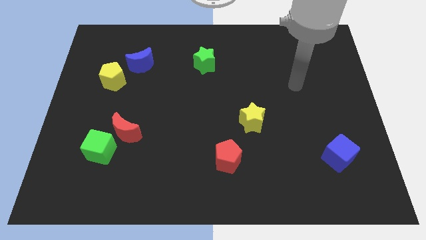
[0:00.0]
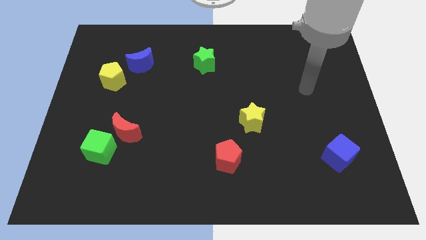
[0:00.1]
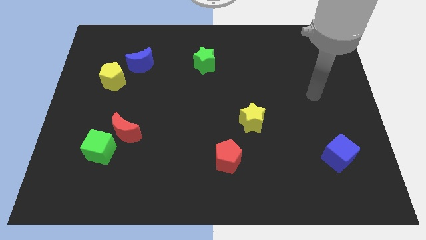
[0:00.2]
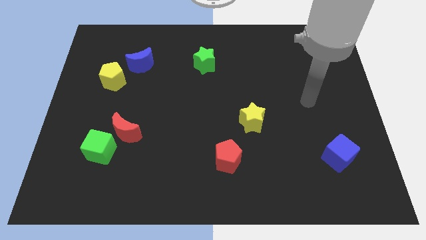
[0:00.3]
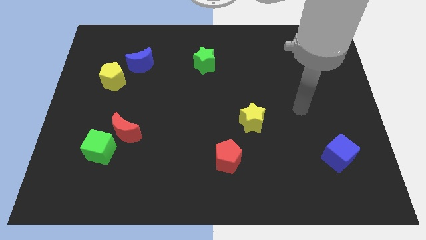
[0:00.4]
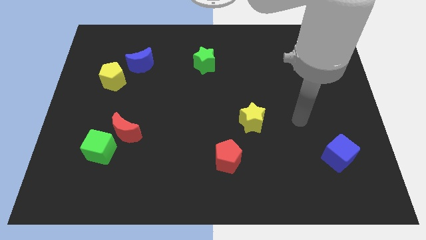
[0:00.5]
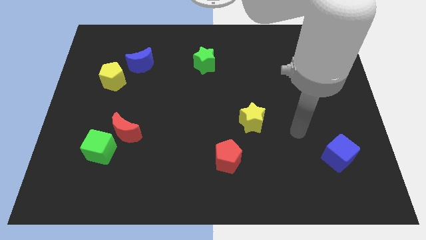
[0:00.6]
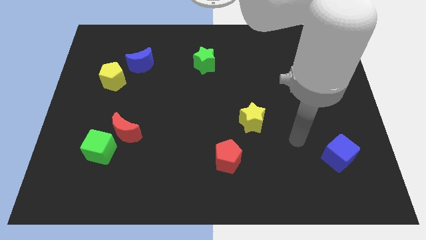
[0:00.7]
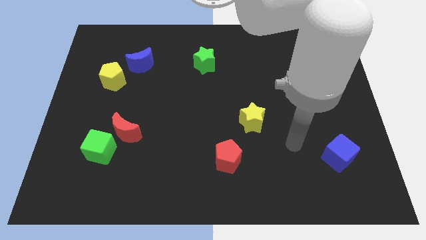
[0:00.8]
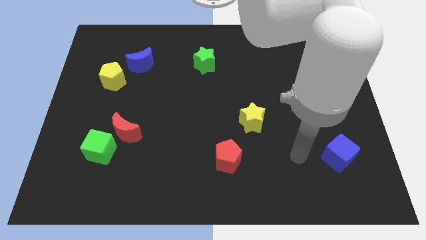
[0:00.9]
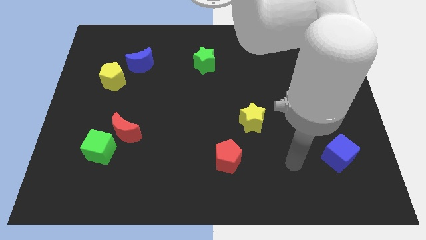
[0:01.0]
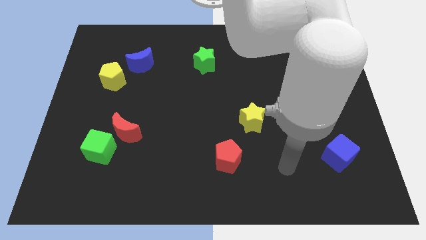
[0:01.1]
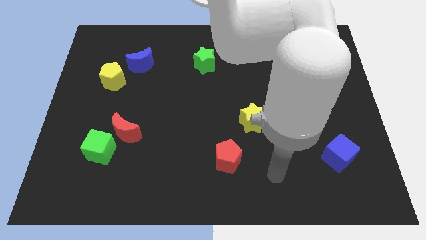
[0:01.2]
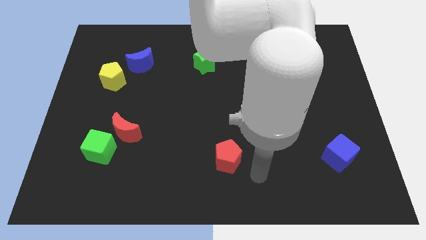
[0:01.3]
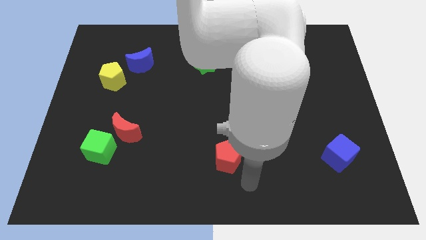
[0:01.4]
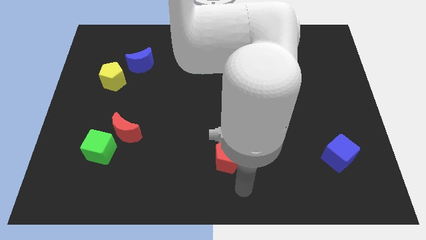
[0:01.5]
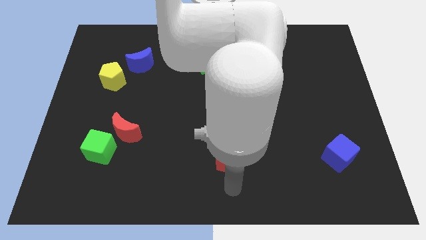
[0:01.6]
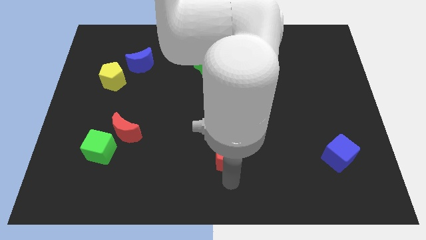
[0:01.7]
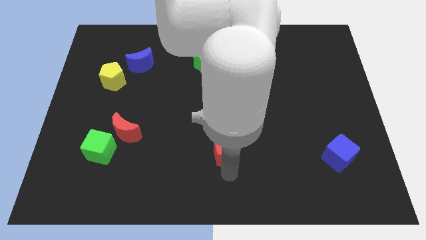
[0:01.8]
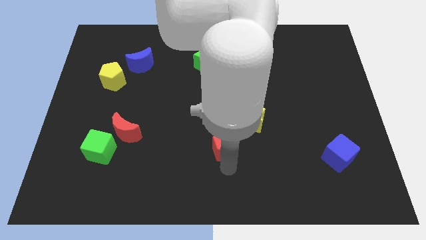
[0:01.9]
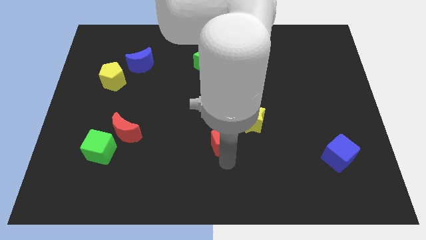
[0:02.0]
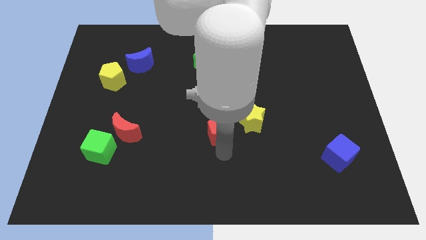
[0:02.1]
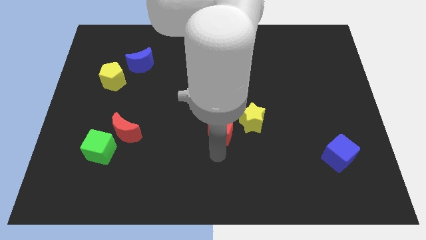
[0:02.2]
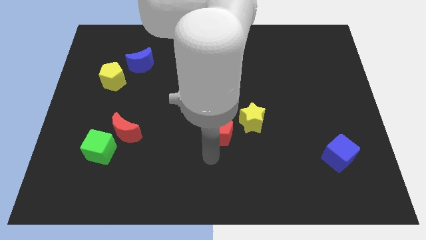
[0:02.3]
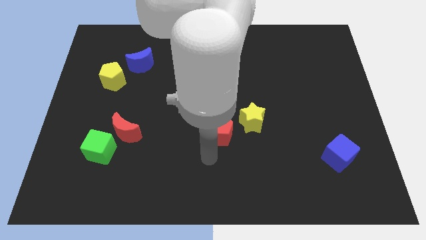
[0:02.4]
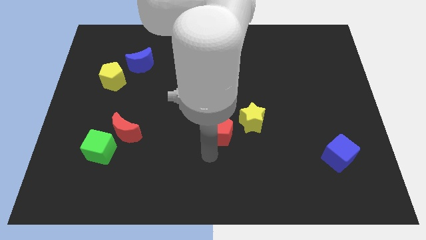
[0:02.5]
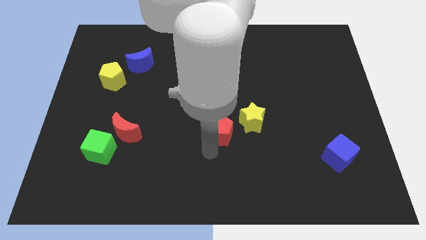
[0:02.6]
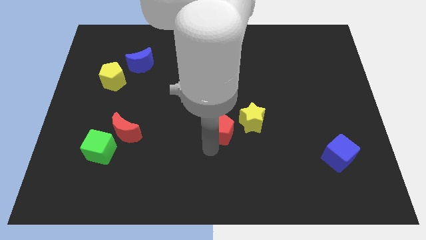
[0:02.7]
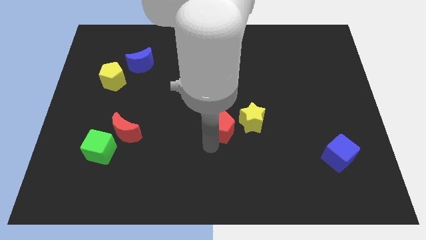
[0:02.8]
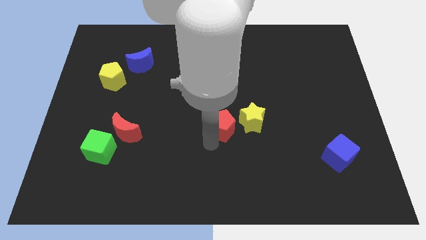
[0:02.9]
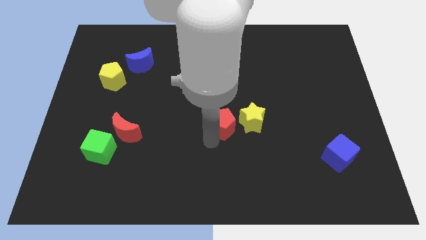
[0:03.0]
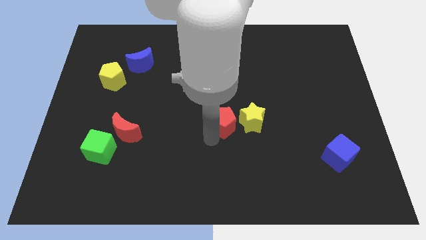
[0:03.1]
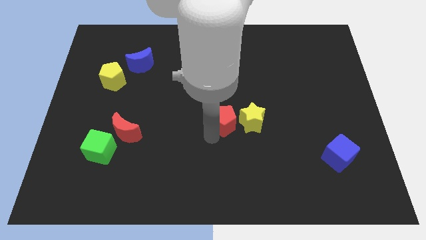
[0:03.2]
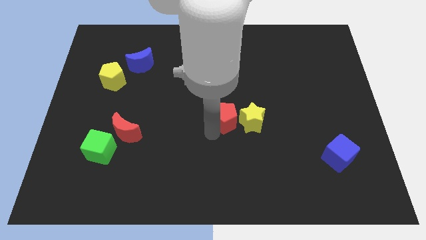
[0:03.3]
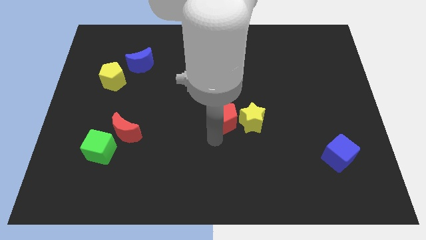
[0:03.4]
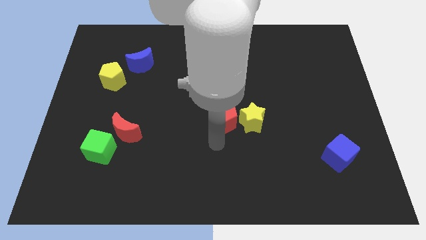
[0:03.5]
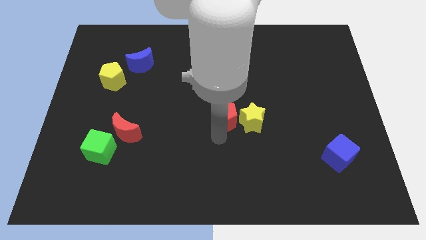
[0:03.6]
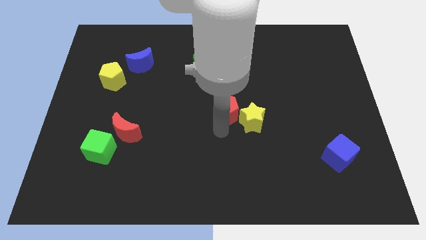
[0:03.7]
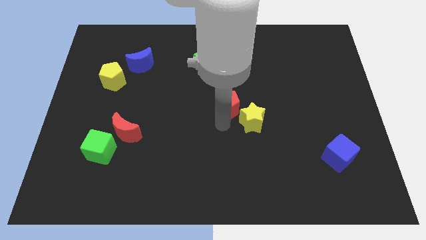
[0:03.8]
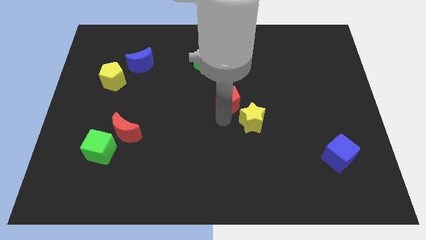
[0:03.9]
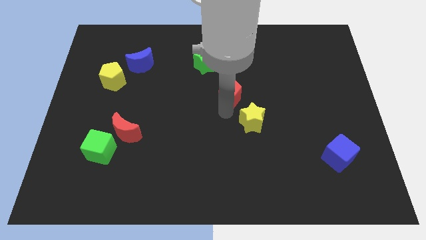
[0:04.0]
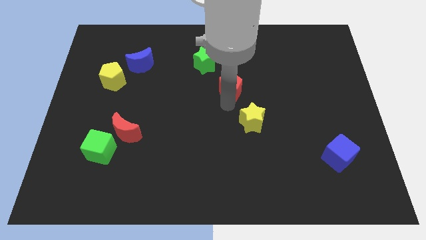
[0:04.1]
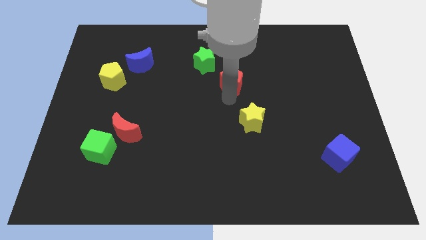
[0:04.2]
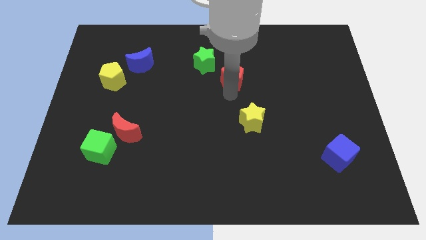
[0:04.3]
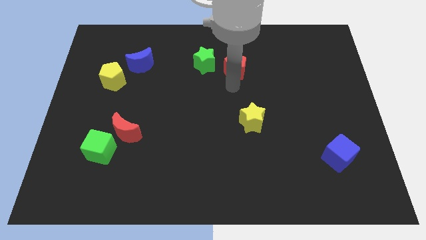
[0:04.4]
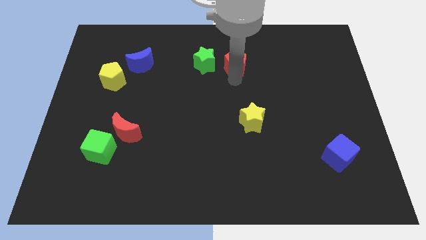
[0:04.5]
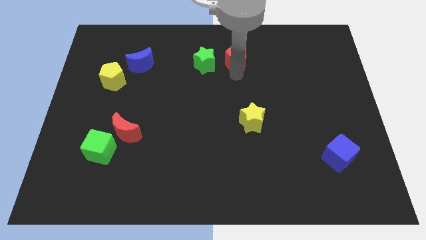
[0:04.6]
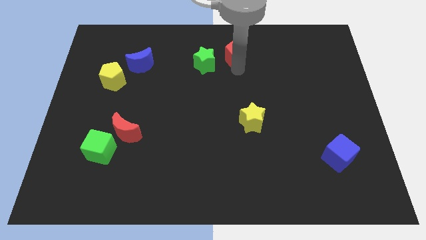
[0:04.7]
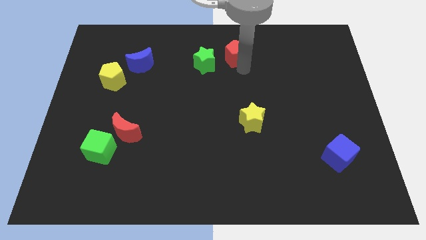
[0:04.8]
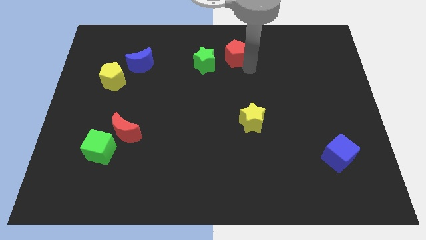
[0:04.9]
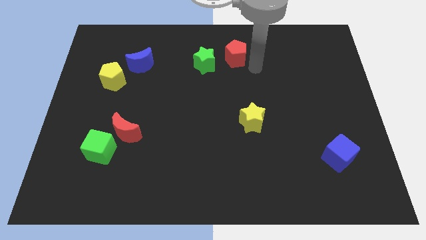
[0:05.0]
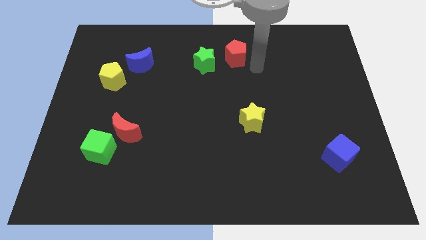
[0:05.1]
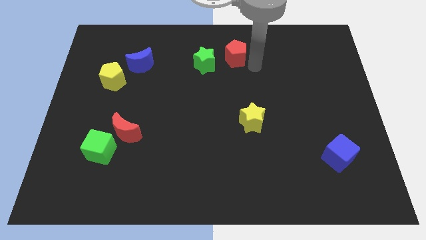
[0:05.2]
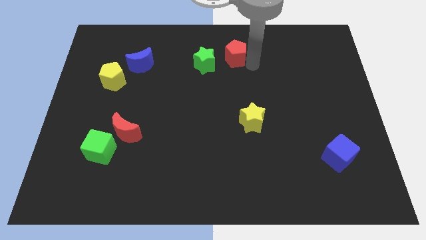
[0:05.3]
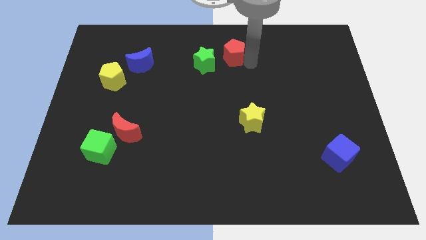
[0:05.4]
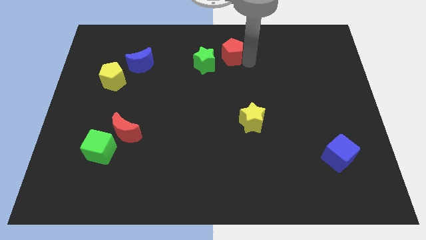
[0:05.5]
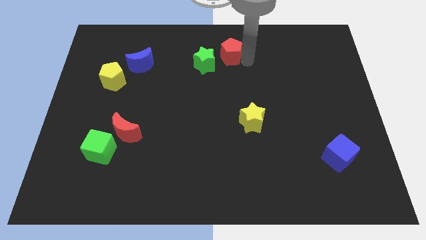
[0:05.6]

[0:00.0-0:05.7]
move the red pentagon to the top side

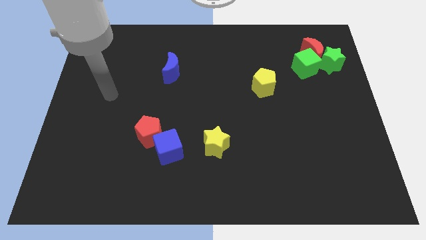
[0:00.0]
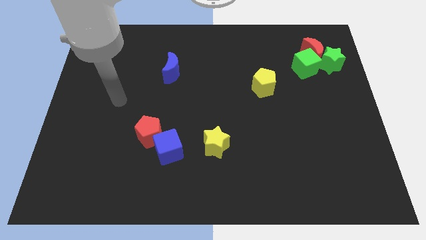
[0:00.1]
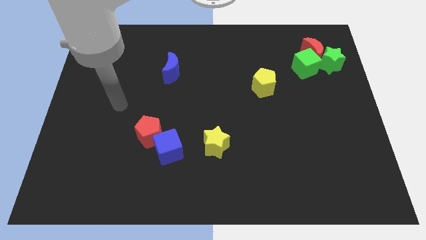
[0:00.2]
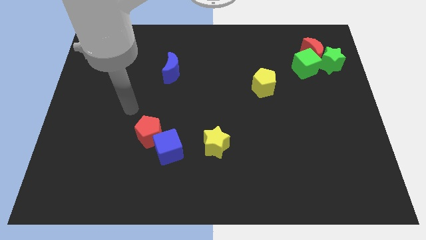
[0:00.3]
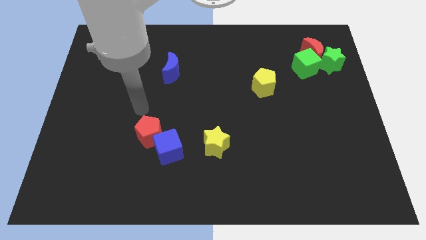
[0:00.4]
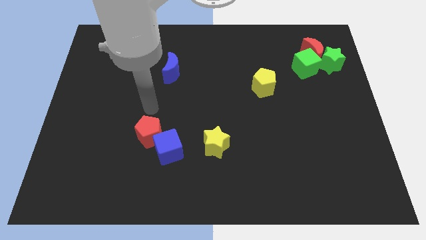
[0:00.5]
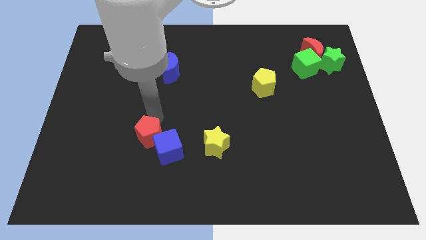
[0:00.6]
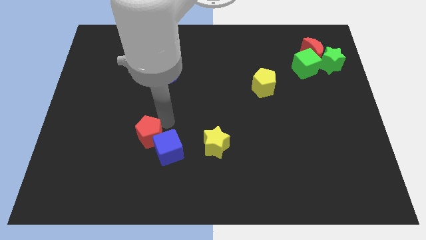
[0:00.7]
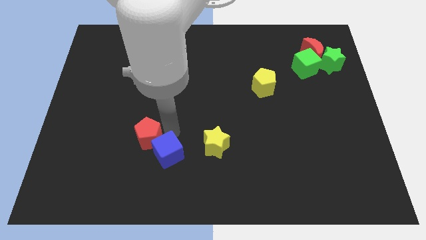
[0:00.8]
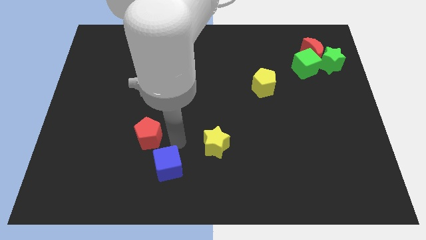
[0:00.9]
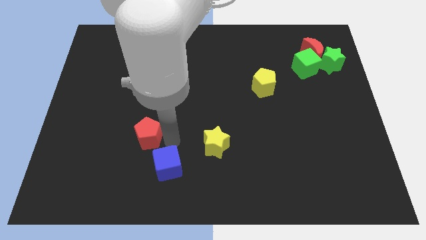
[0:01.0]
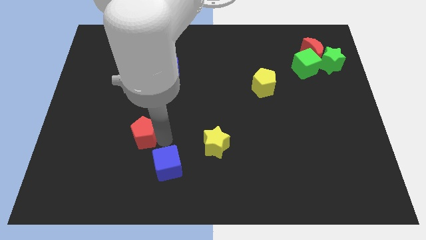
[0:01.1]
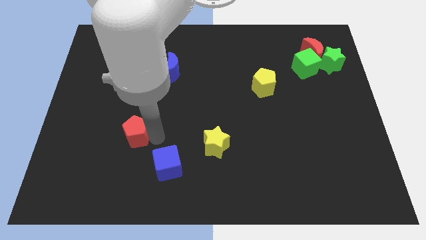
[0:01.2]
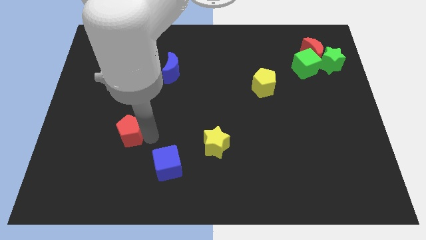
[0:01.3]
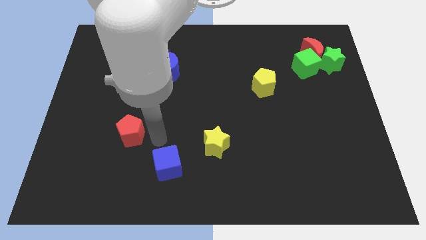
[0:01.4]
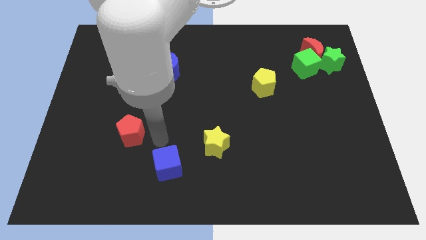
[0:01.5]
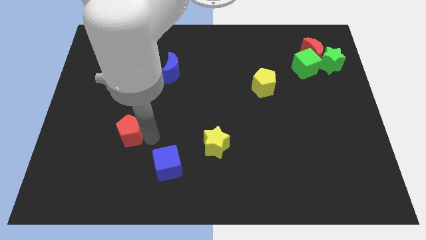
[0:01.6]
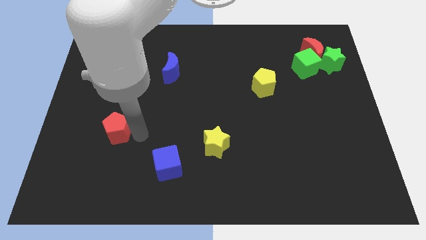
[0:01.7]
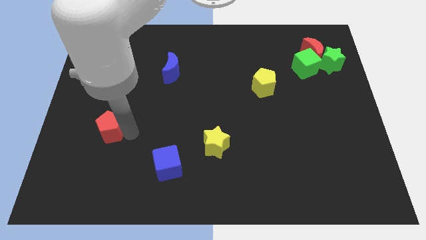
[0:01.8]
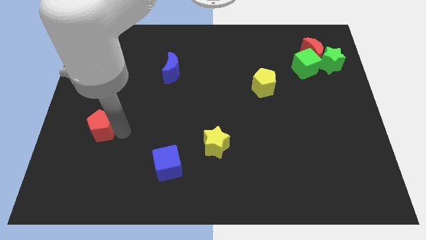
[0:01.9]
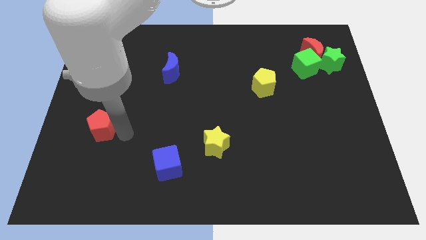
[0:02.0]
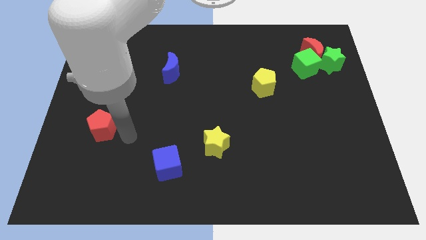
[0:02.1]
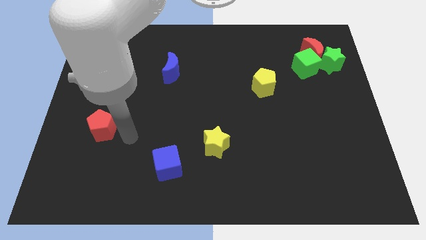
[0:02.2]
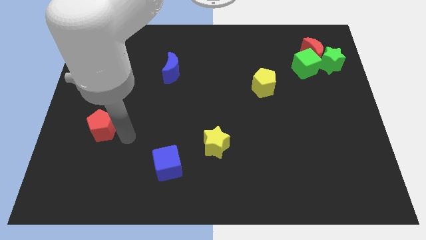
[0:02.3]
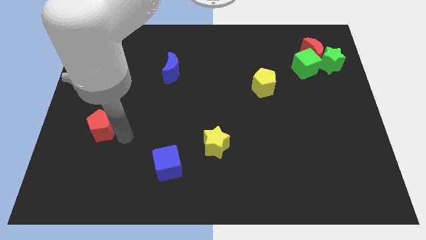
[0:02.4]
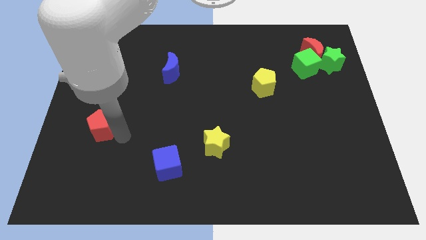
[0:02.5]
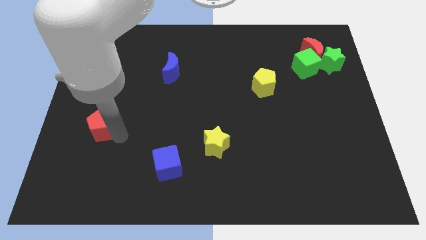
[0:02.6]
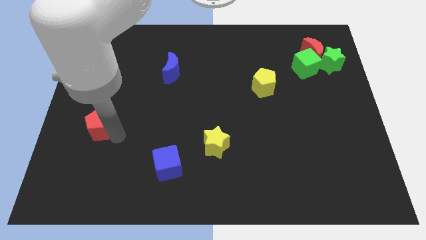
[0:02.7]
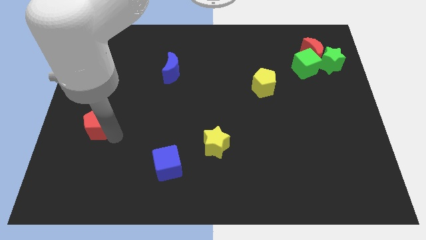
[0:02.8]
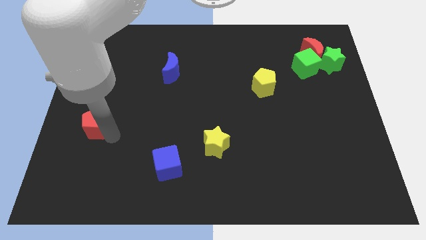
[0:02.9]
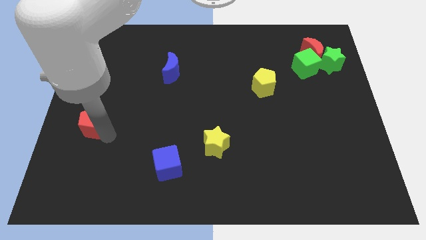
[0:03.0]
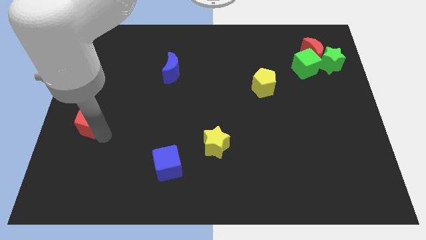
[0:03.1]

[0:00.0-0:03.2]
slide the red pentagon to the left side of the board
